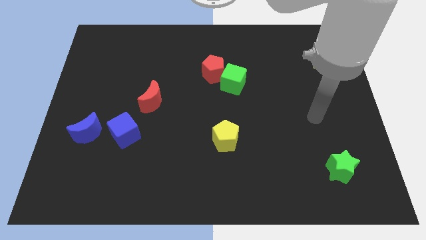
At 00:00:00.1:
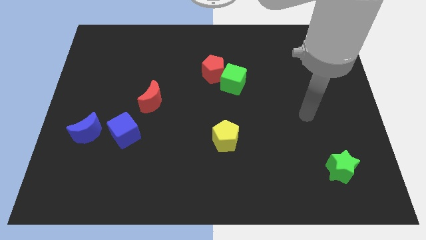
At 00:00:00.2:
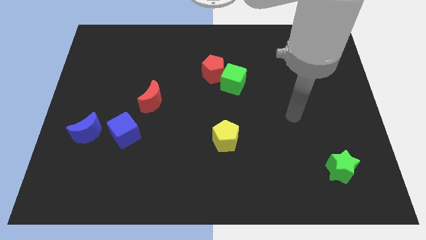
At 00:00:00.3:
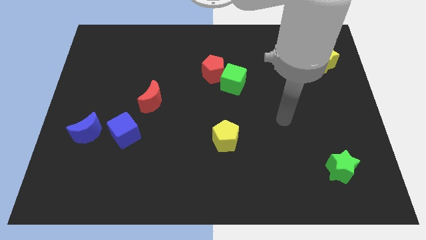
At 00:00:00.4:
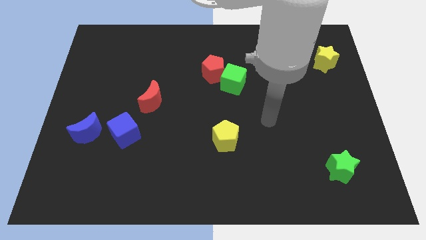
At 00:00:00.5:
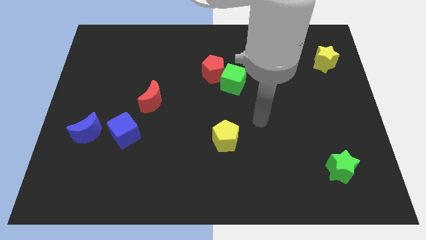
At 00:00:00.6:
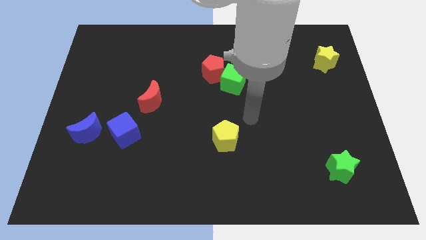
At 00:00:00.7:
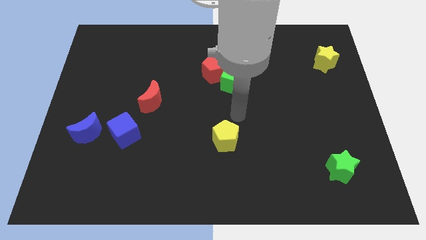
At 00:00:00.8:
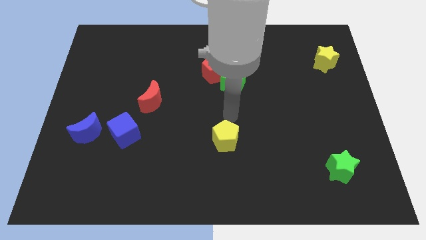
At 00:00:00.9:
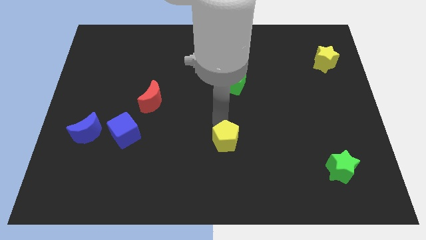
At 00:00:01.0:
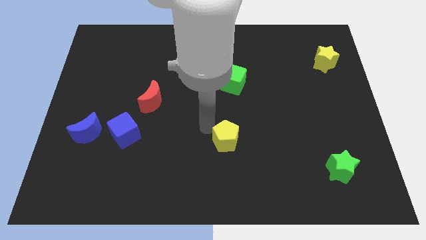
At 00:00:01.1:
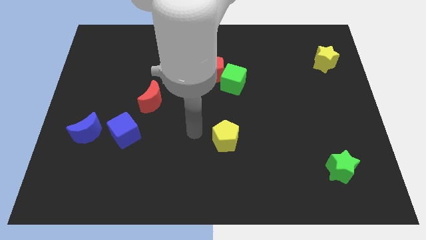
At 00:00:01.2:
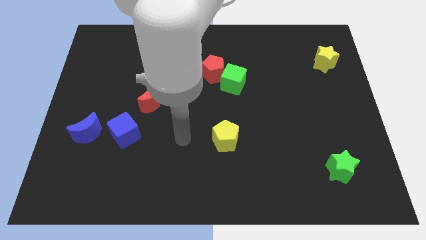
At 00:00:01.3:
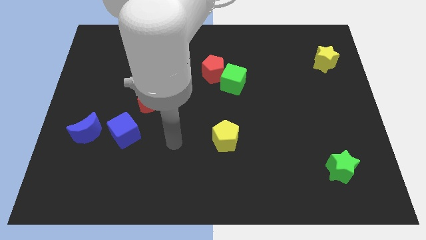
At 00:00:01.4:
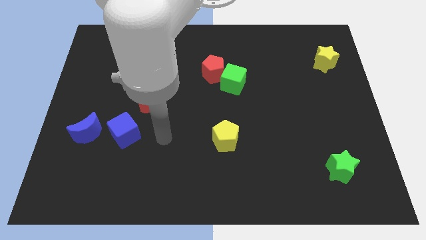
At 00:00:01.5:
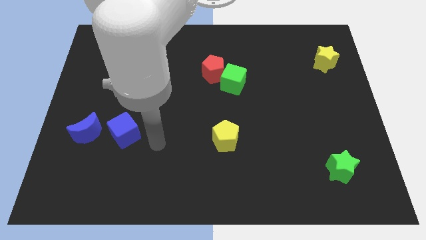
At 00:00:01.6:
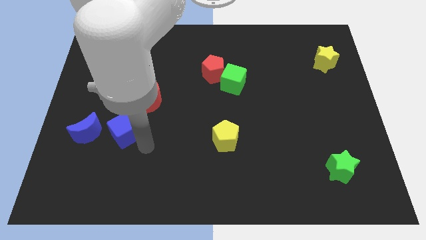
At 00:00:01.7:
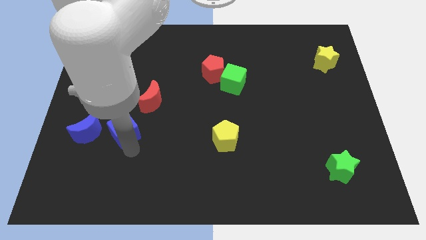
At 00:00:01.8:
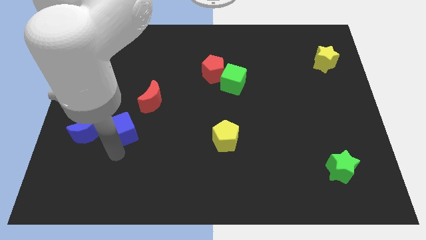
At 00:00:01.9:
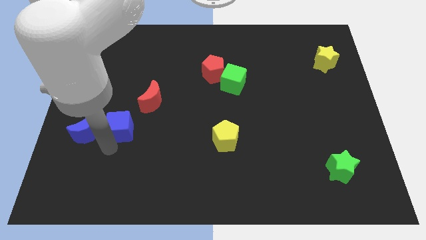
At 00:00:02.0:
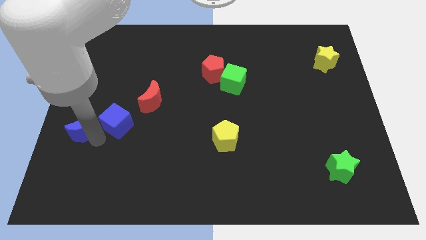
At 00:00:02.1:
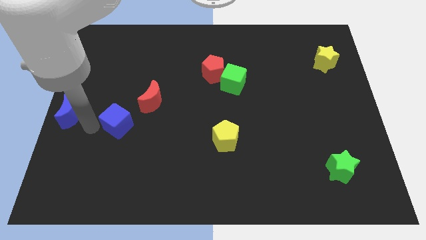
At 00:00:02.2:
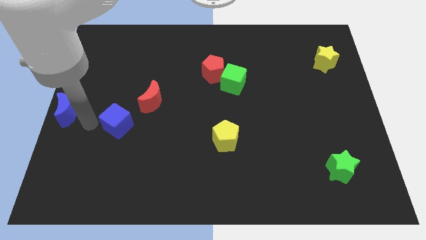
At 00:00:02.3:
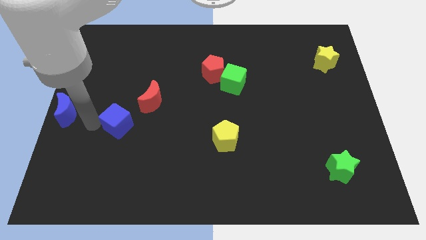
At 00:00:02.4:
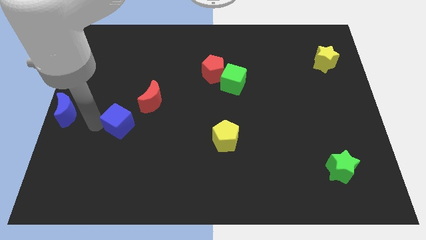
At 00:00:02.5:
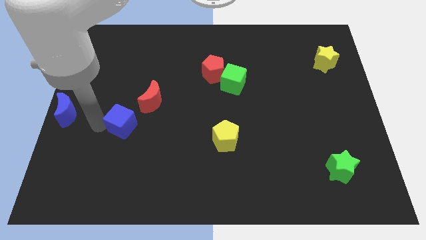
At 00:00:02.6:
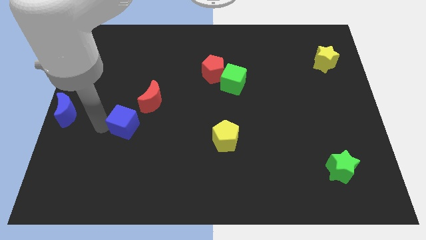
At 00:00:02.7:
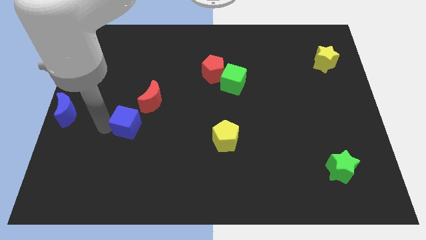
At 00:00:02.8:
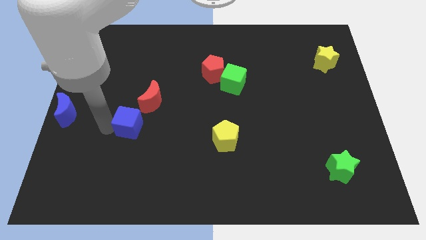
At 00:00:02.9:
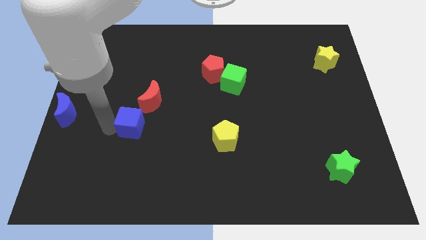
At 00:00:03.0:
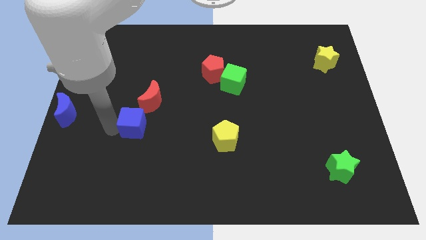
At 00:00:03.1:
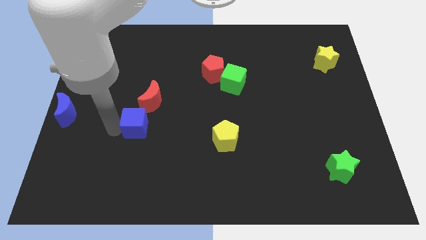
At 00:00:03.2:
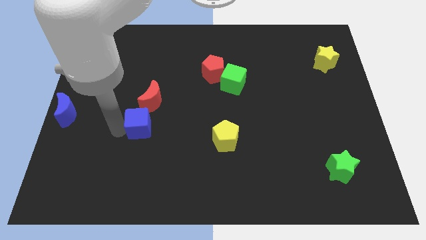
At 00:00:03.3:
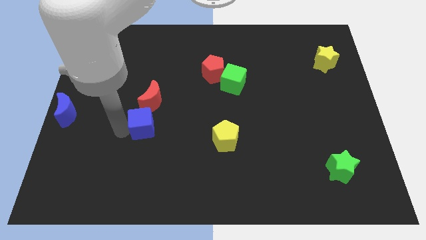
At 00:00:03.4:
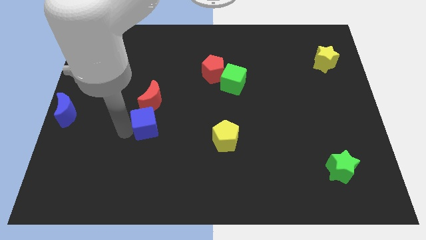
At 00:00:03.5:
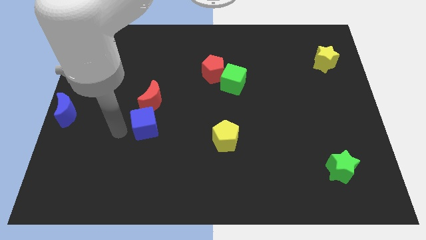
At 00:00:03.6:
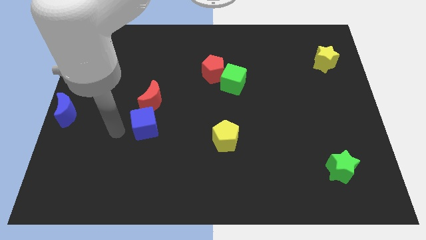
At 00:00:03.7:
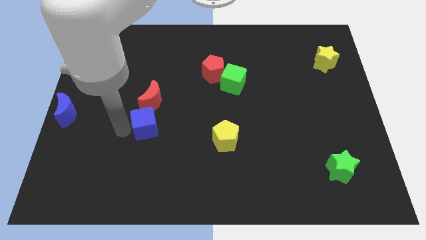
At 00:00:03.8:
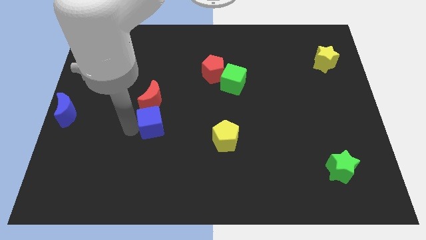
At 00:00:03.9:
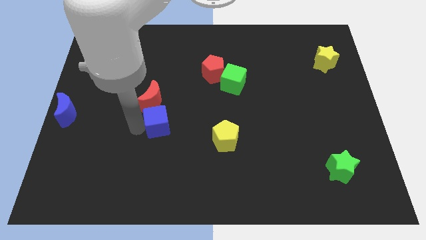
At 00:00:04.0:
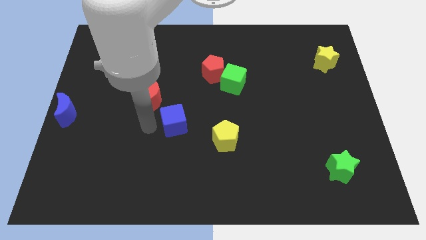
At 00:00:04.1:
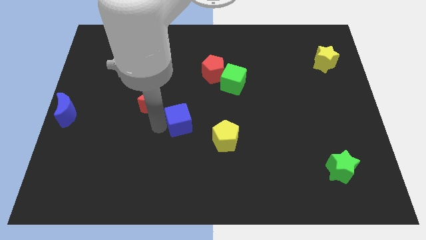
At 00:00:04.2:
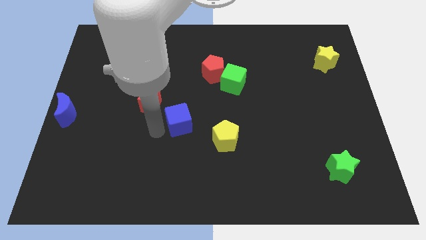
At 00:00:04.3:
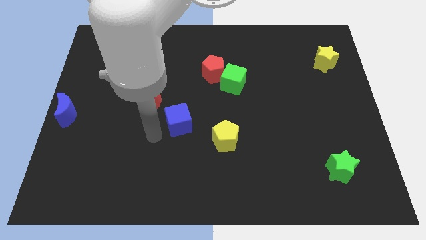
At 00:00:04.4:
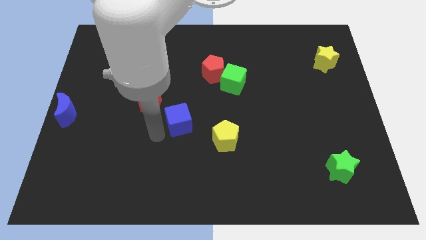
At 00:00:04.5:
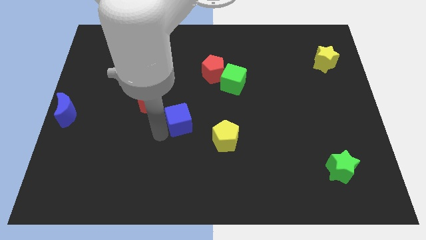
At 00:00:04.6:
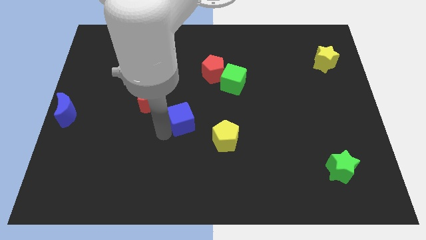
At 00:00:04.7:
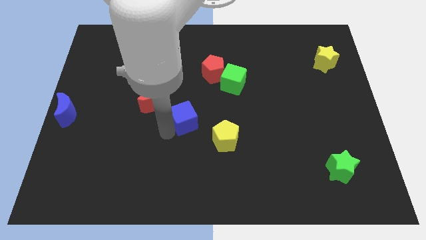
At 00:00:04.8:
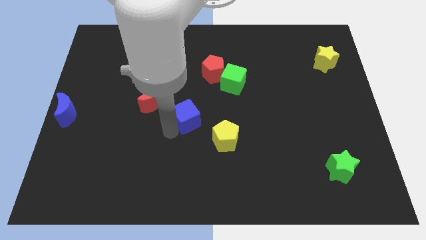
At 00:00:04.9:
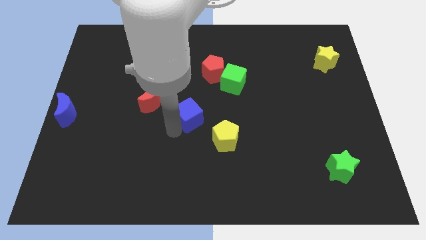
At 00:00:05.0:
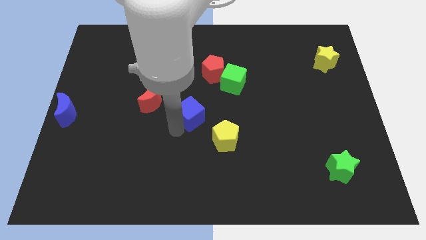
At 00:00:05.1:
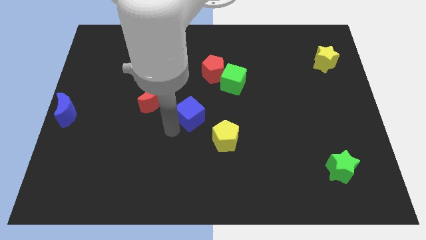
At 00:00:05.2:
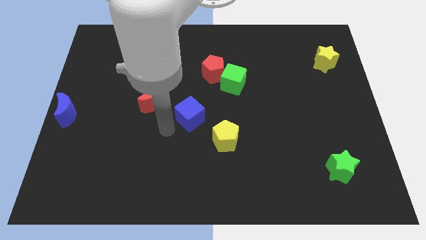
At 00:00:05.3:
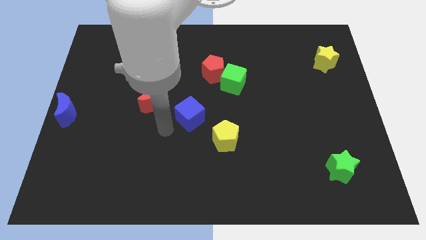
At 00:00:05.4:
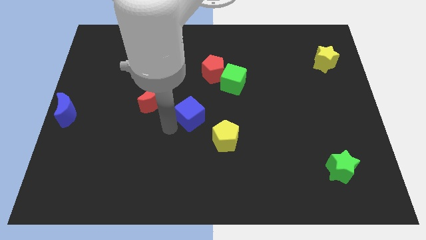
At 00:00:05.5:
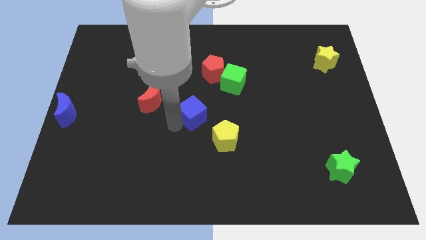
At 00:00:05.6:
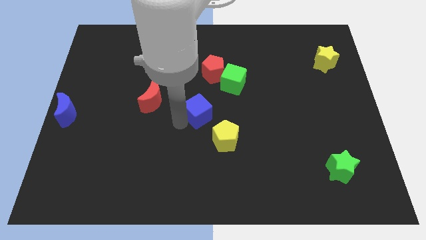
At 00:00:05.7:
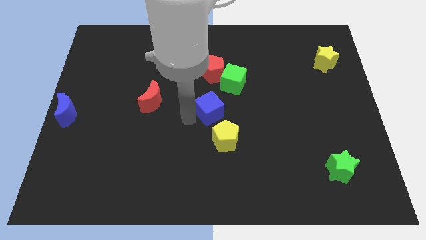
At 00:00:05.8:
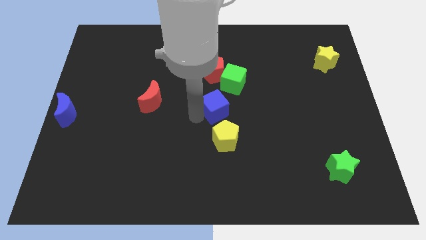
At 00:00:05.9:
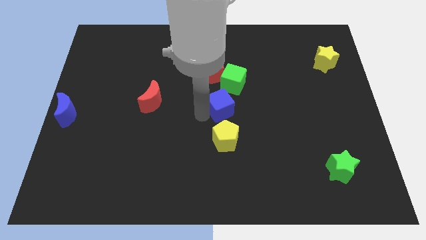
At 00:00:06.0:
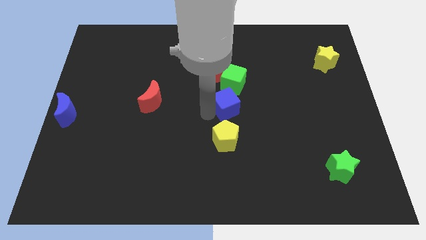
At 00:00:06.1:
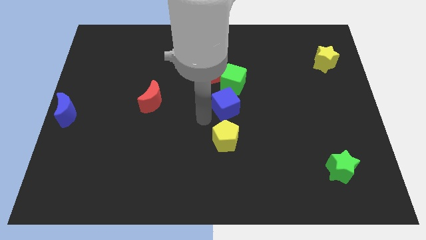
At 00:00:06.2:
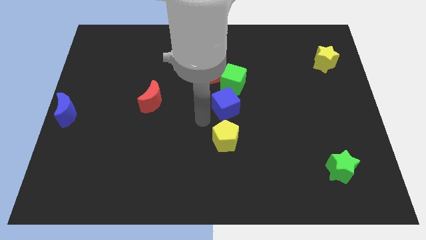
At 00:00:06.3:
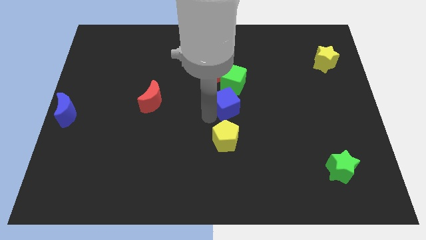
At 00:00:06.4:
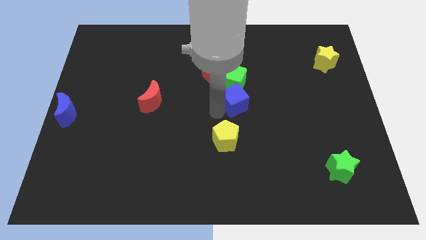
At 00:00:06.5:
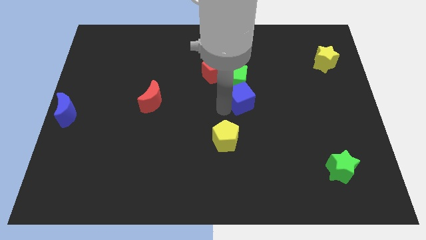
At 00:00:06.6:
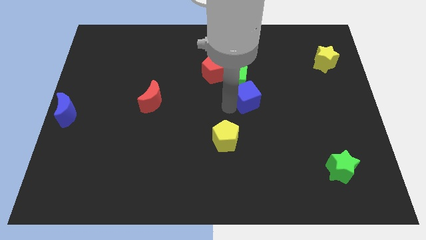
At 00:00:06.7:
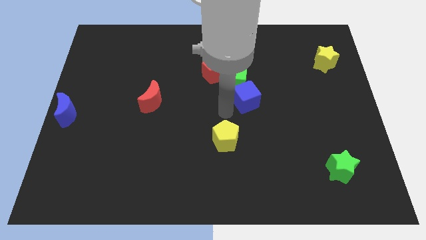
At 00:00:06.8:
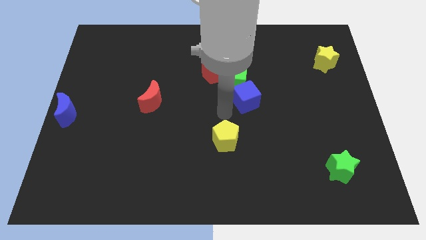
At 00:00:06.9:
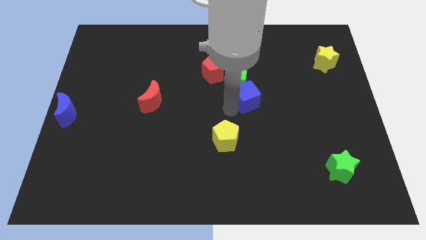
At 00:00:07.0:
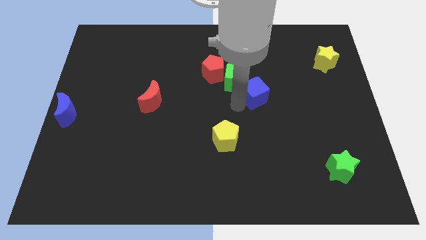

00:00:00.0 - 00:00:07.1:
put the blue cube to the right of the green cube
